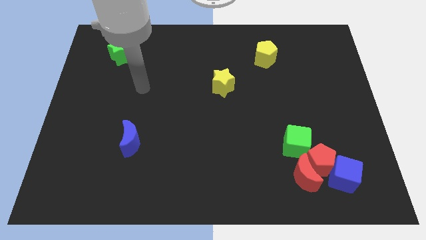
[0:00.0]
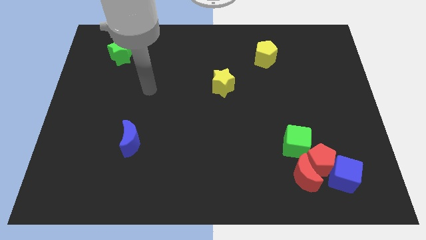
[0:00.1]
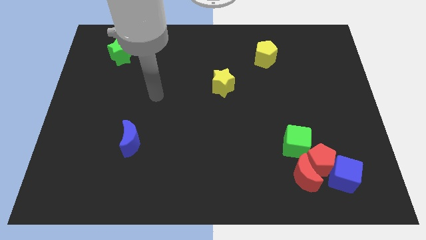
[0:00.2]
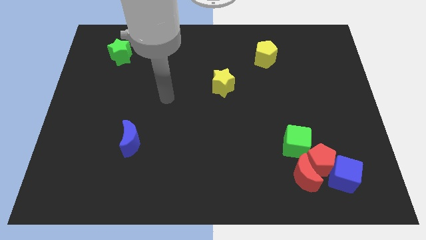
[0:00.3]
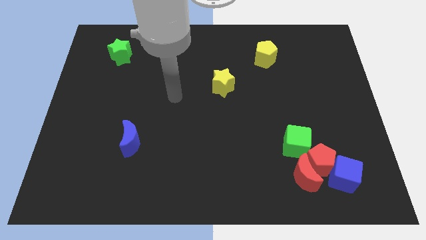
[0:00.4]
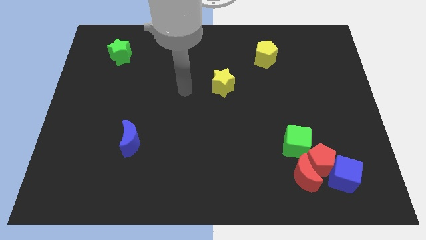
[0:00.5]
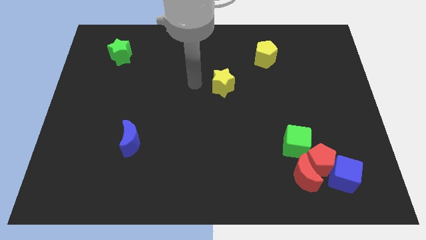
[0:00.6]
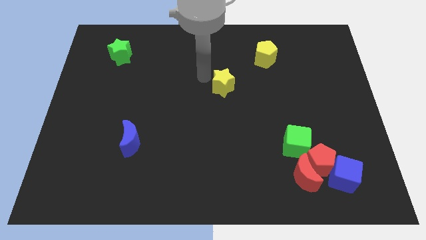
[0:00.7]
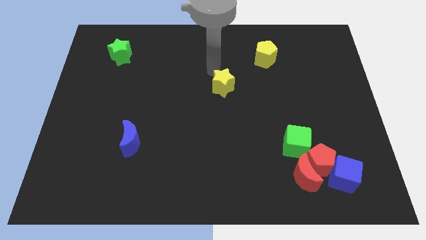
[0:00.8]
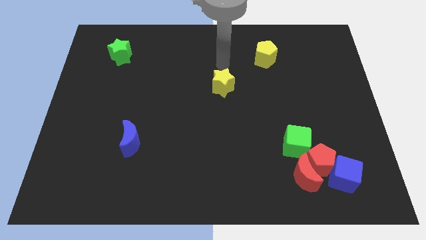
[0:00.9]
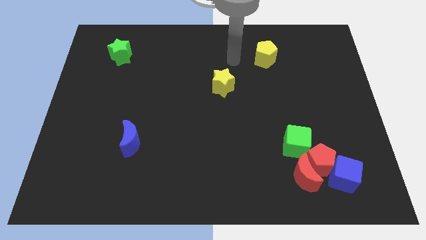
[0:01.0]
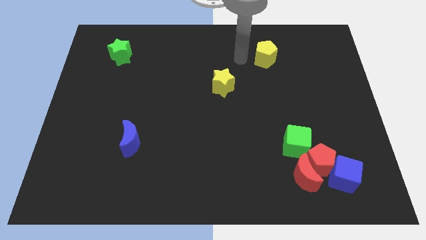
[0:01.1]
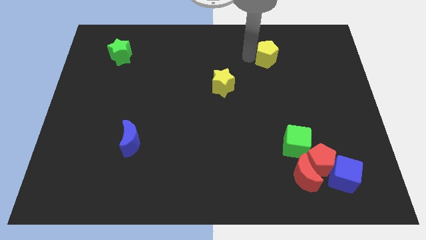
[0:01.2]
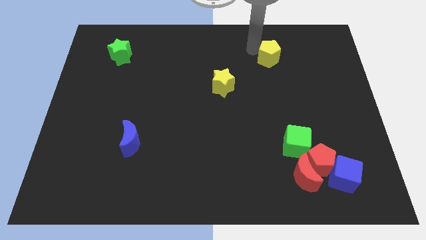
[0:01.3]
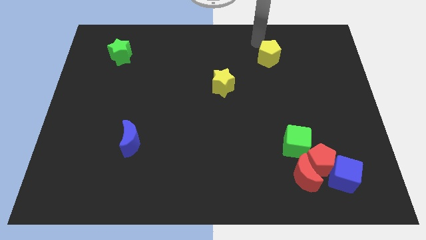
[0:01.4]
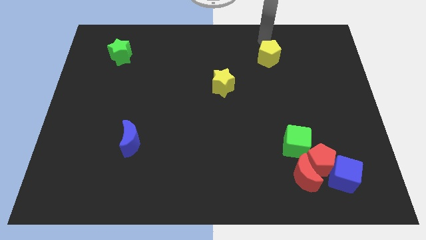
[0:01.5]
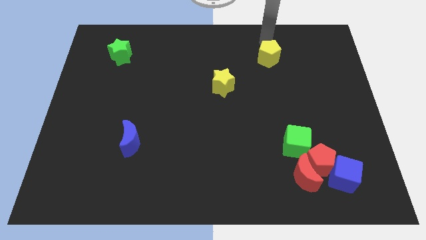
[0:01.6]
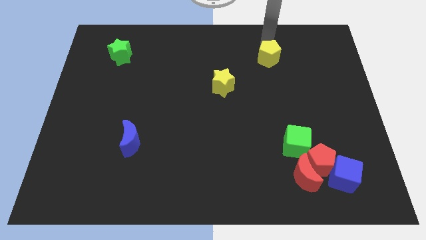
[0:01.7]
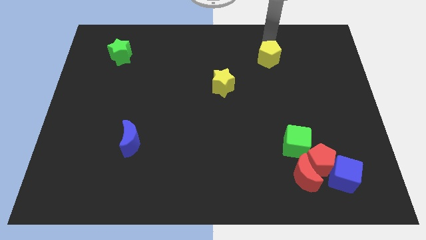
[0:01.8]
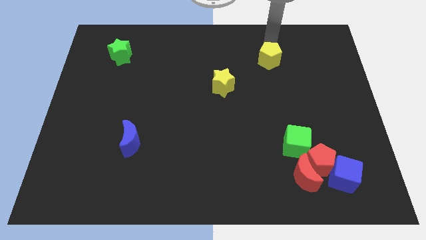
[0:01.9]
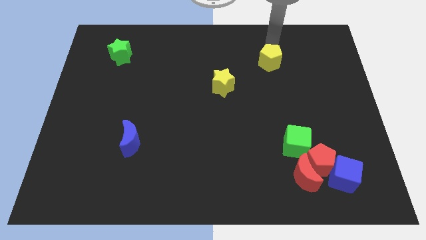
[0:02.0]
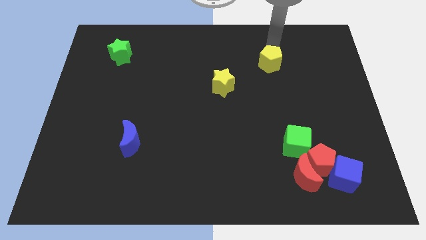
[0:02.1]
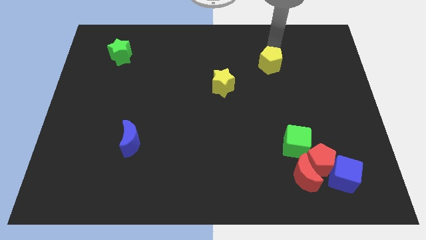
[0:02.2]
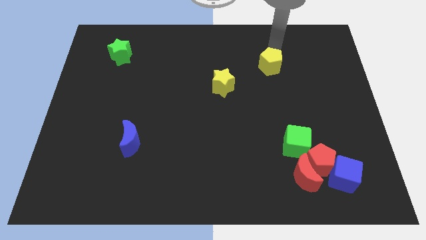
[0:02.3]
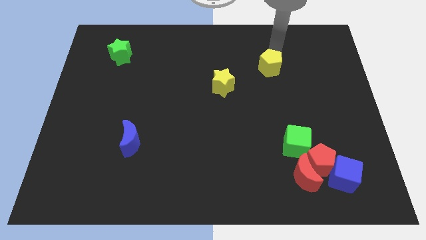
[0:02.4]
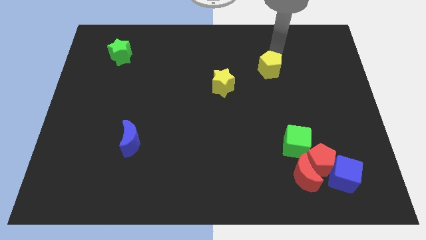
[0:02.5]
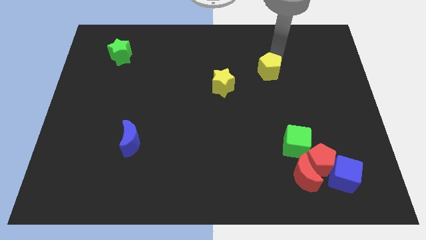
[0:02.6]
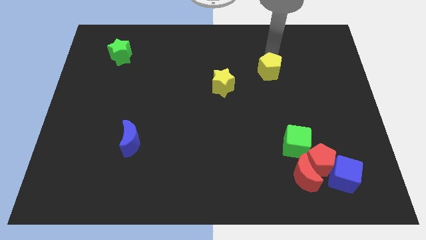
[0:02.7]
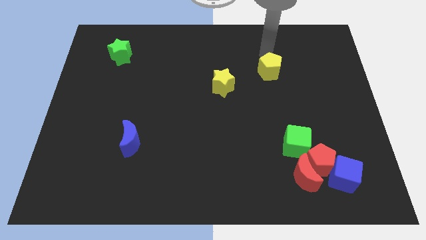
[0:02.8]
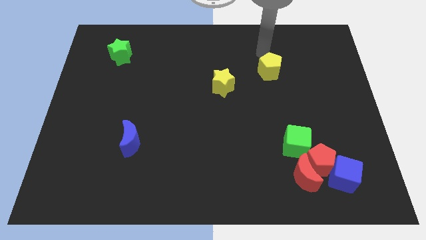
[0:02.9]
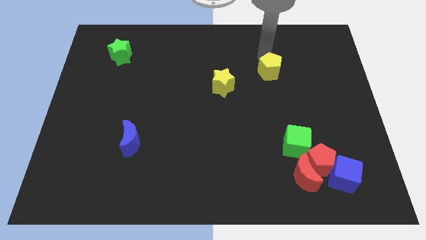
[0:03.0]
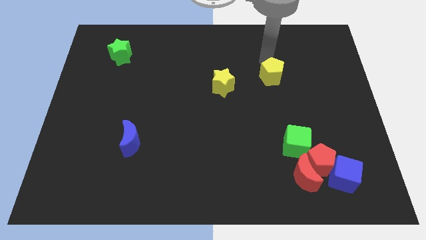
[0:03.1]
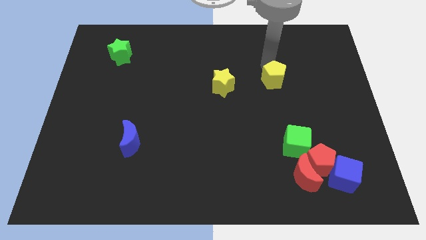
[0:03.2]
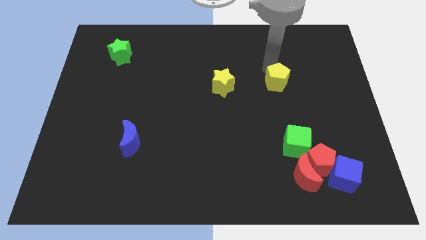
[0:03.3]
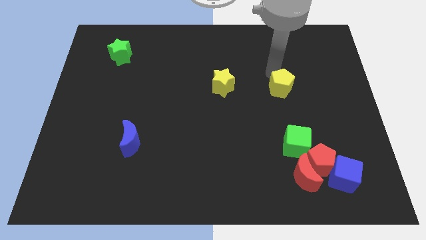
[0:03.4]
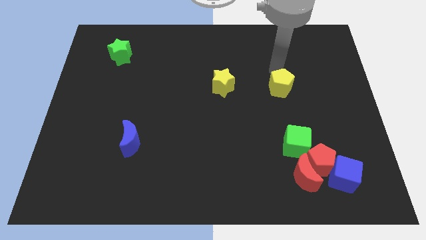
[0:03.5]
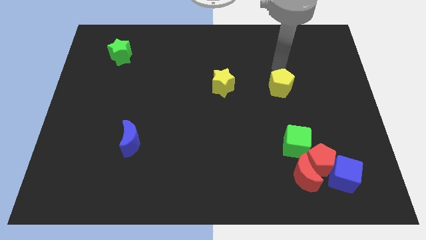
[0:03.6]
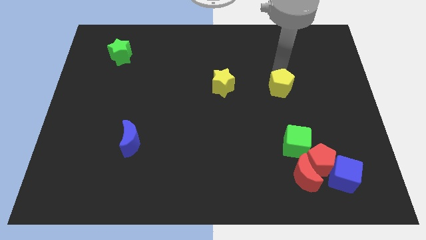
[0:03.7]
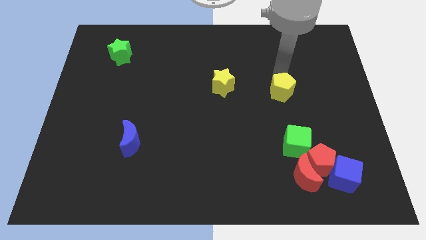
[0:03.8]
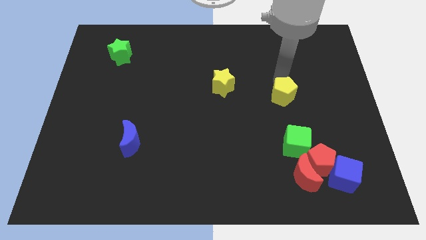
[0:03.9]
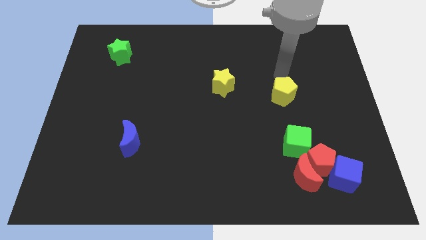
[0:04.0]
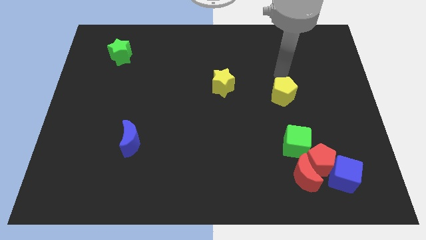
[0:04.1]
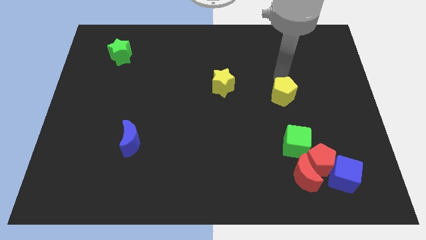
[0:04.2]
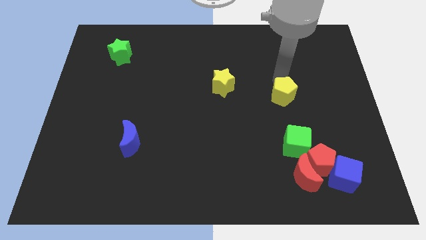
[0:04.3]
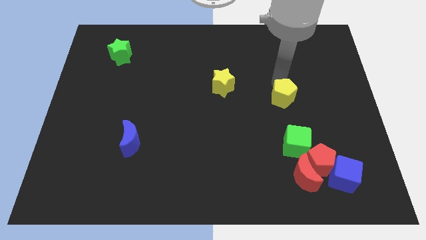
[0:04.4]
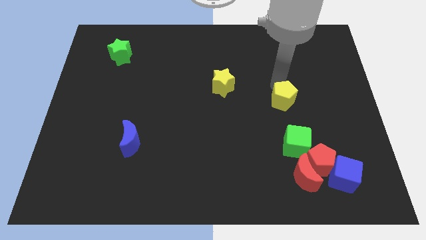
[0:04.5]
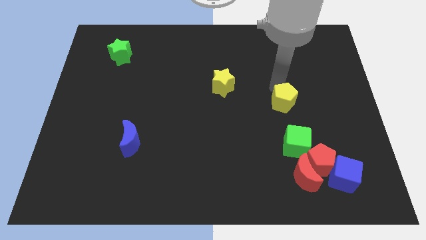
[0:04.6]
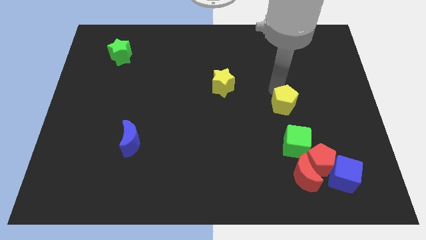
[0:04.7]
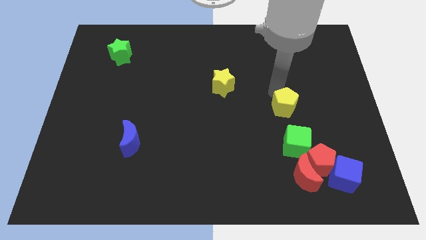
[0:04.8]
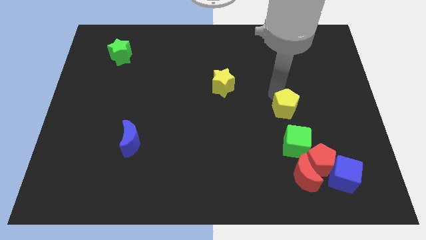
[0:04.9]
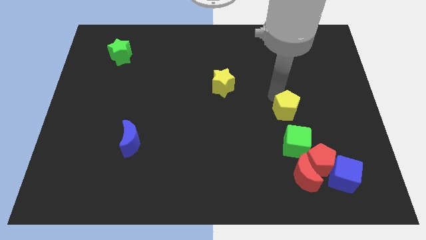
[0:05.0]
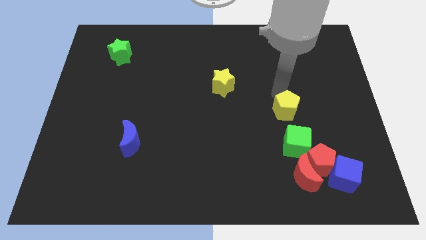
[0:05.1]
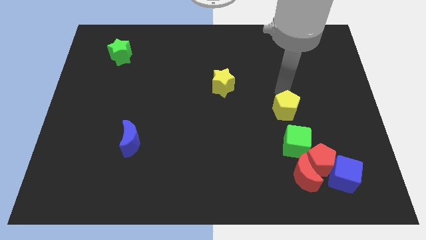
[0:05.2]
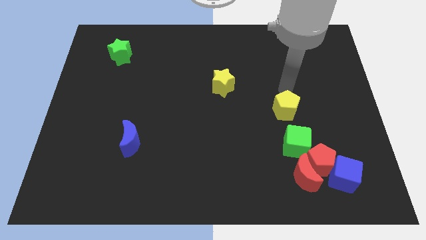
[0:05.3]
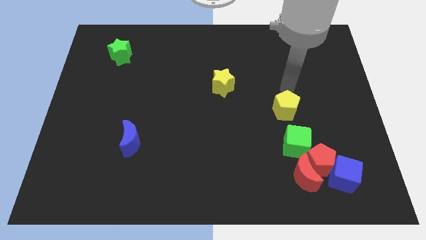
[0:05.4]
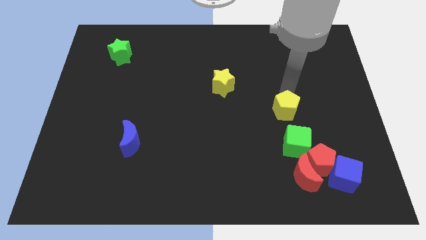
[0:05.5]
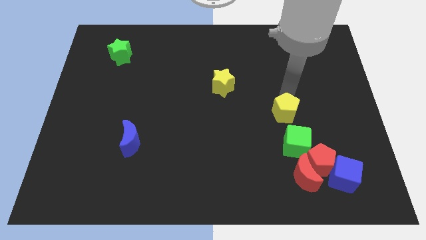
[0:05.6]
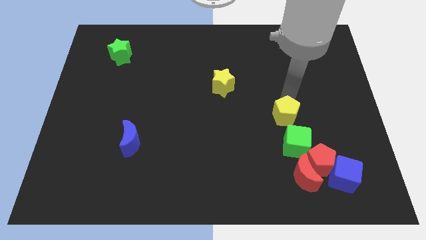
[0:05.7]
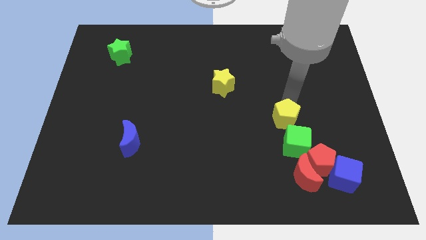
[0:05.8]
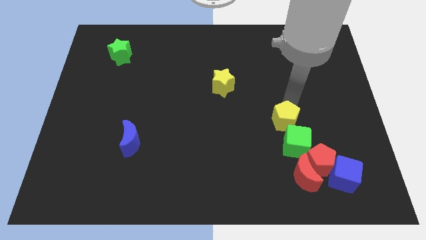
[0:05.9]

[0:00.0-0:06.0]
slide the yellow pentagon downwards

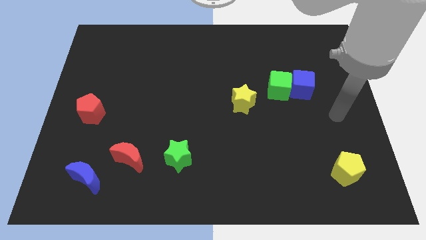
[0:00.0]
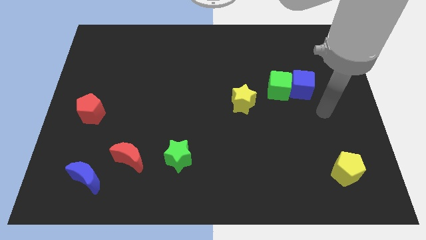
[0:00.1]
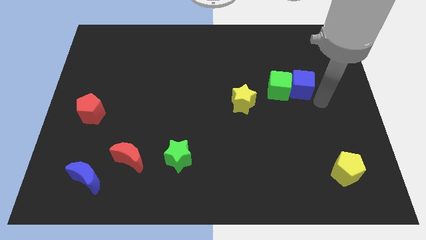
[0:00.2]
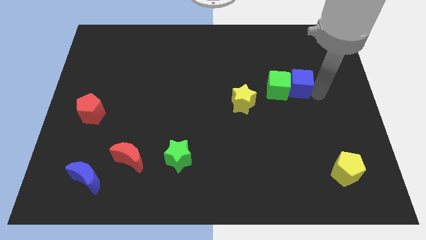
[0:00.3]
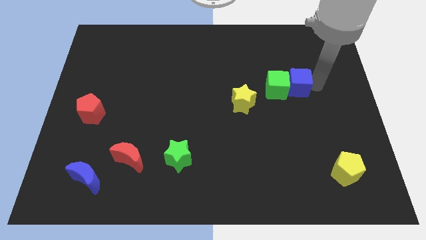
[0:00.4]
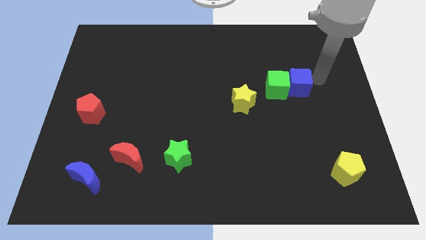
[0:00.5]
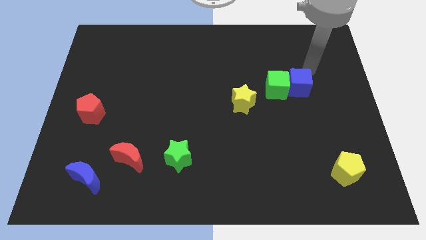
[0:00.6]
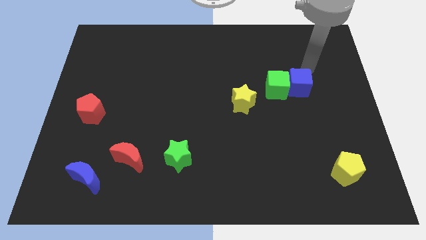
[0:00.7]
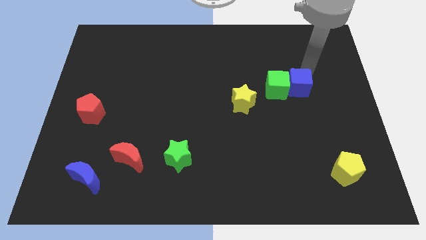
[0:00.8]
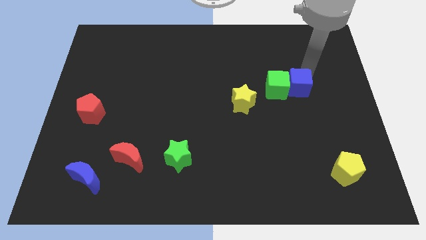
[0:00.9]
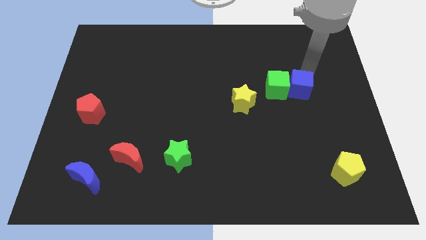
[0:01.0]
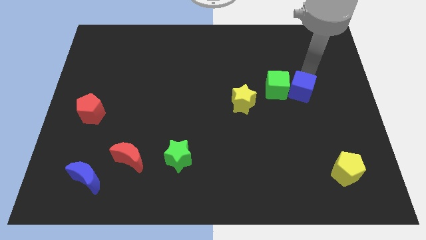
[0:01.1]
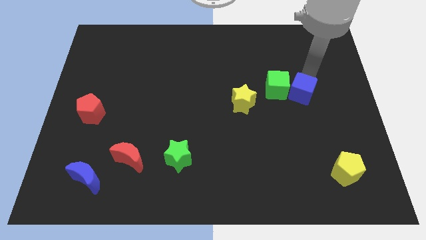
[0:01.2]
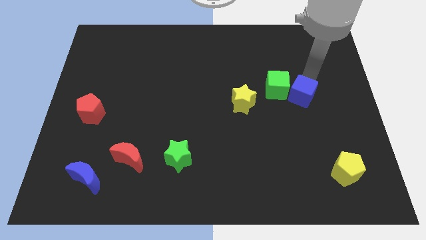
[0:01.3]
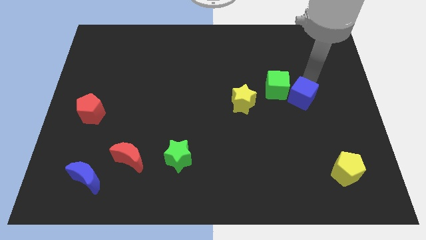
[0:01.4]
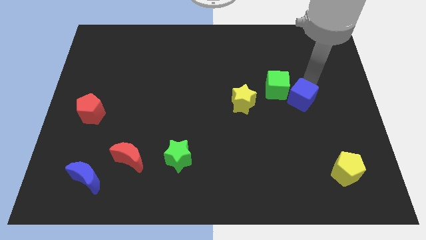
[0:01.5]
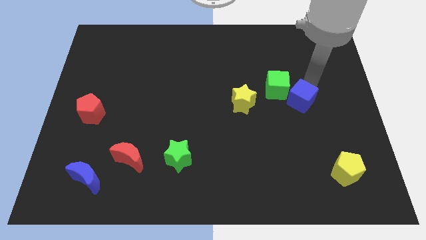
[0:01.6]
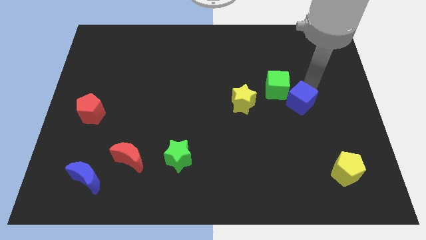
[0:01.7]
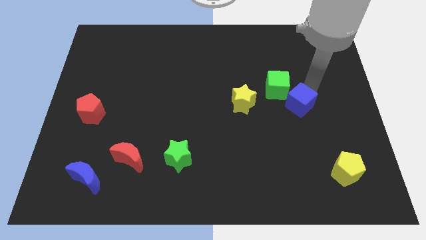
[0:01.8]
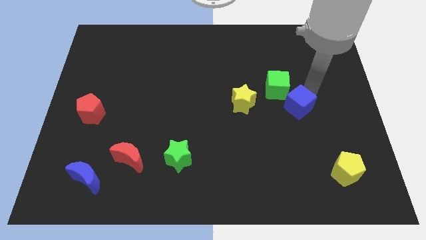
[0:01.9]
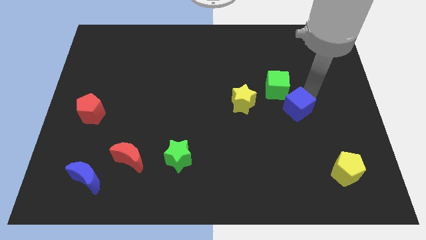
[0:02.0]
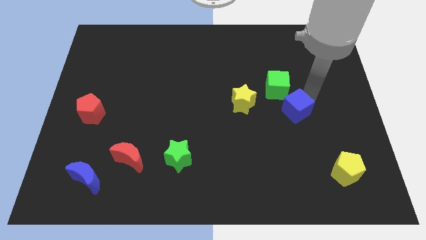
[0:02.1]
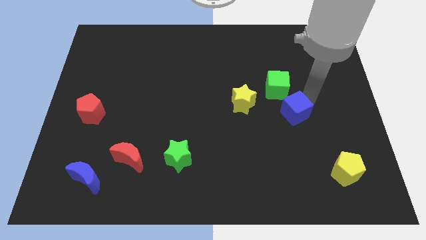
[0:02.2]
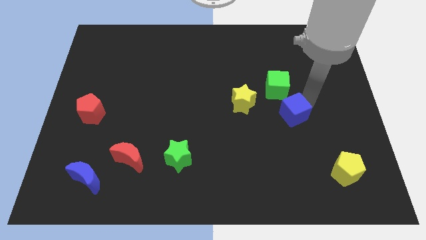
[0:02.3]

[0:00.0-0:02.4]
slide the blue cube a little bit diagonally down and to the left
